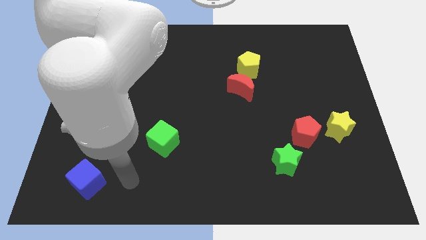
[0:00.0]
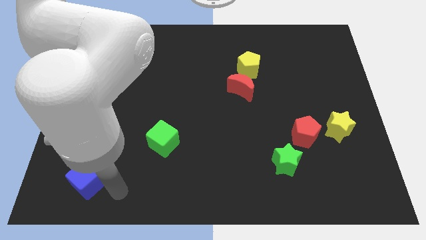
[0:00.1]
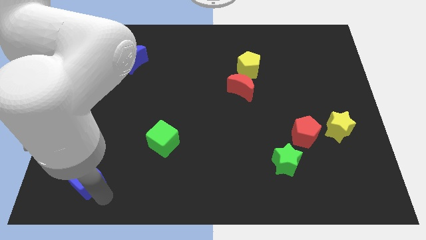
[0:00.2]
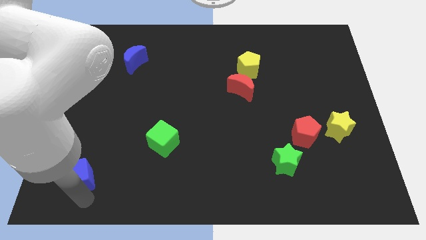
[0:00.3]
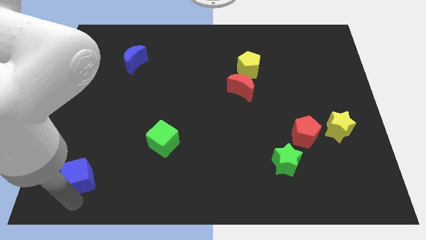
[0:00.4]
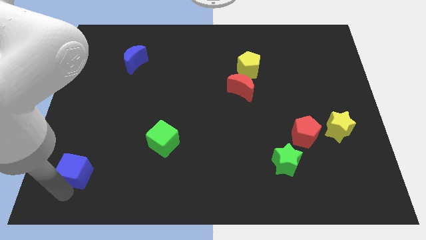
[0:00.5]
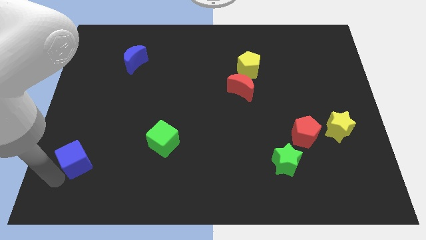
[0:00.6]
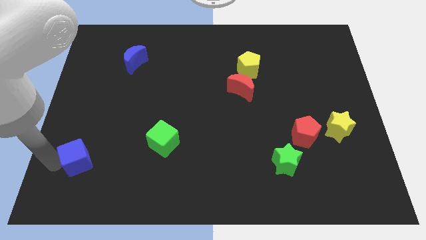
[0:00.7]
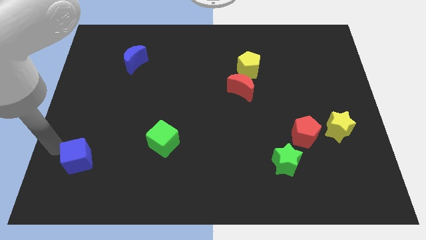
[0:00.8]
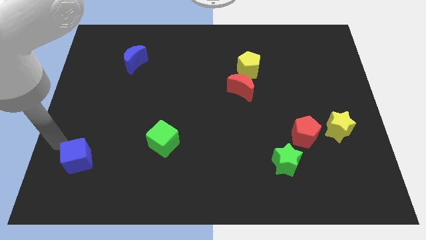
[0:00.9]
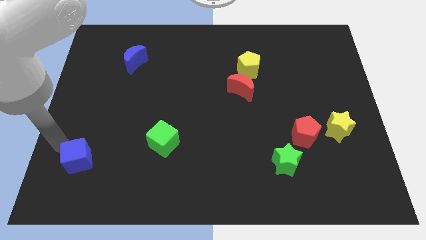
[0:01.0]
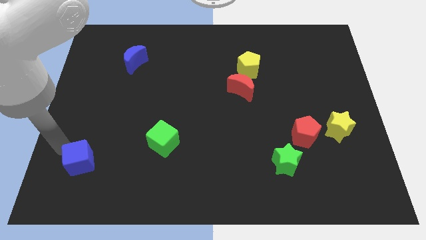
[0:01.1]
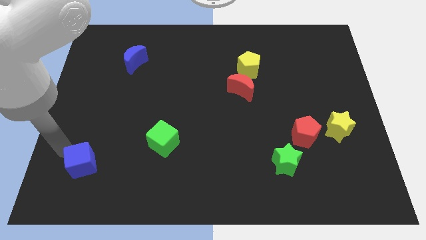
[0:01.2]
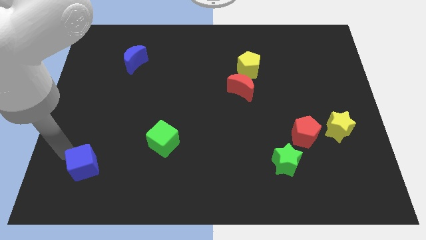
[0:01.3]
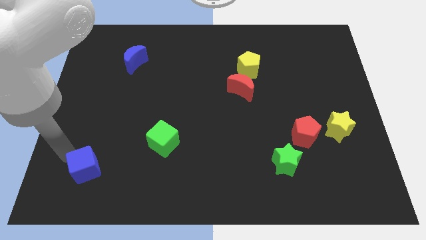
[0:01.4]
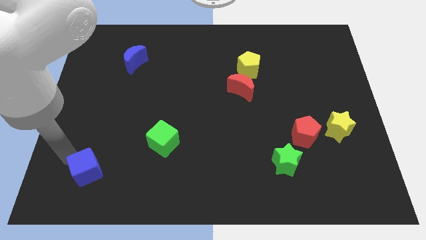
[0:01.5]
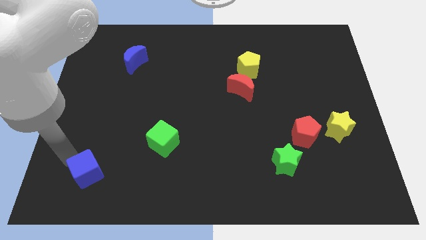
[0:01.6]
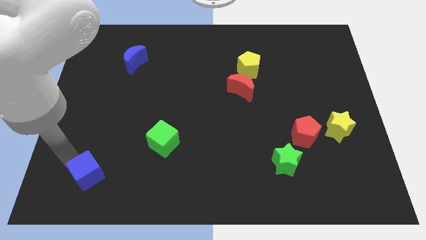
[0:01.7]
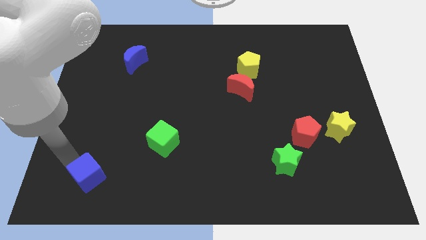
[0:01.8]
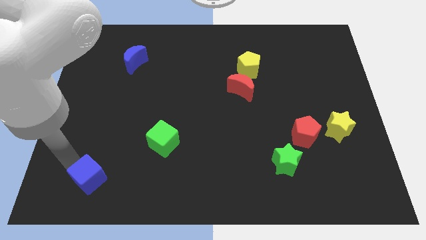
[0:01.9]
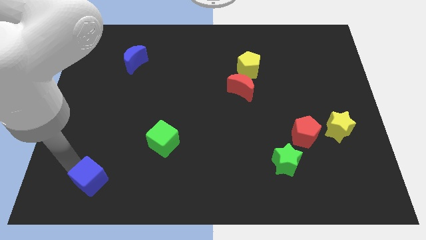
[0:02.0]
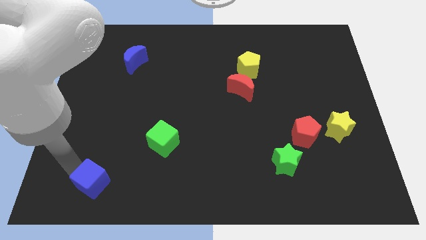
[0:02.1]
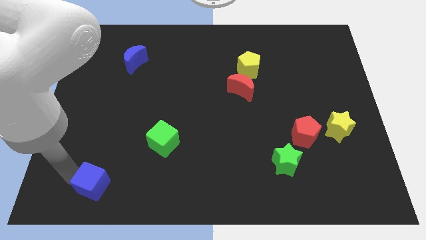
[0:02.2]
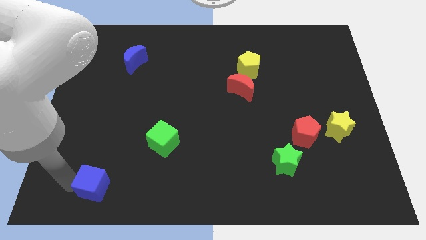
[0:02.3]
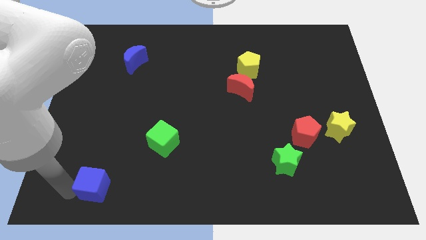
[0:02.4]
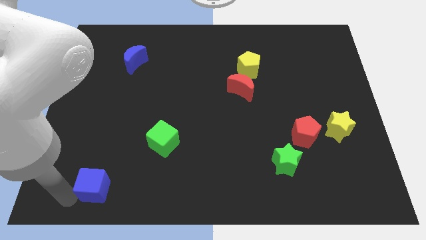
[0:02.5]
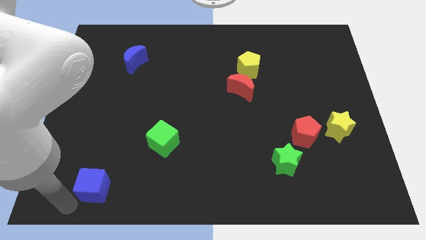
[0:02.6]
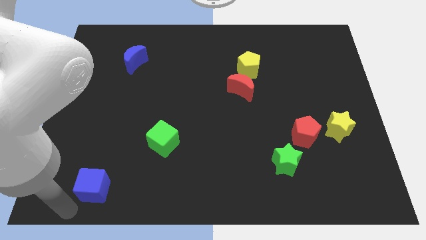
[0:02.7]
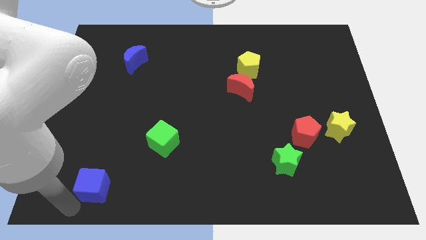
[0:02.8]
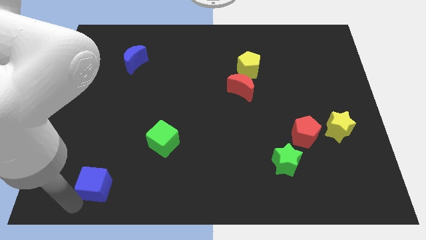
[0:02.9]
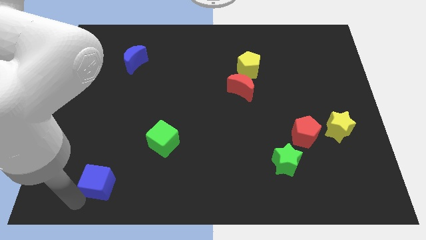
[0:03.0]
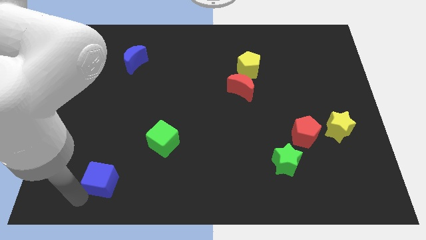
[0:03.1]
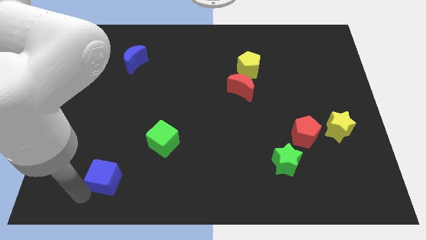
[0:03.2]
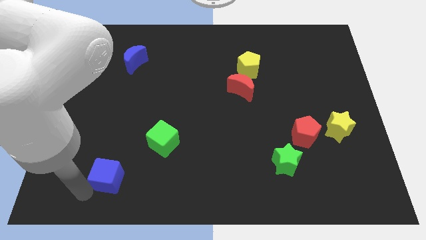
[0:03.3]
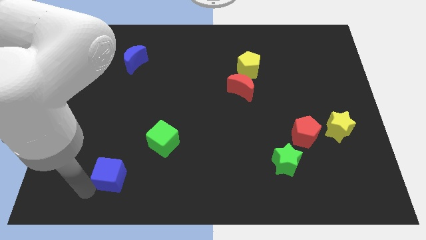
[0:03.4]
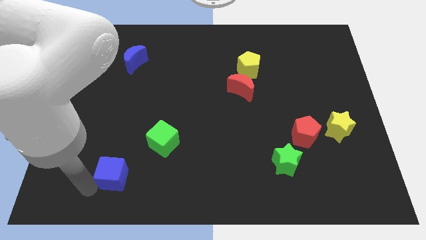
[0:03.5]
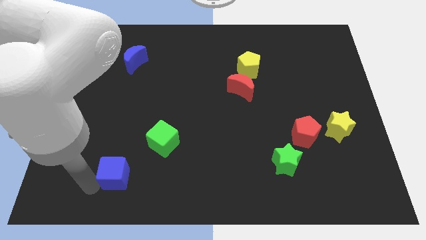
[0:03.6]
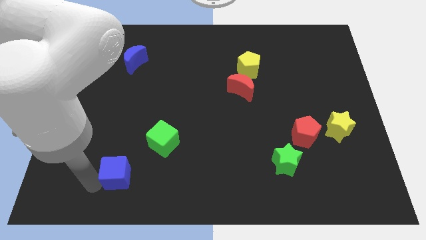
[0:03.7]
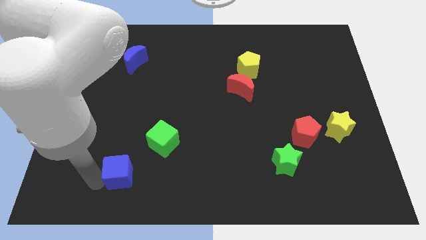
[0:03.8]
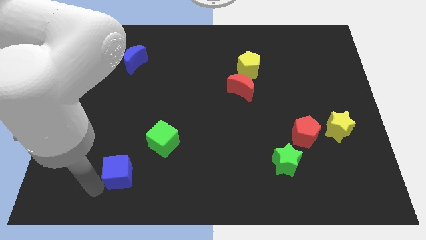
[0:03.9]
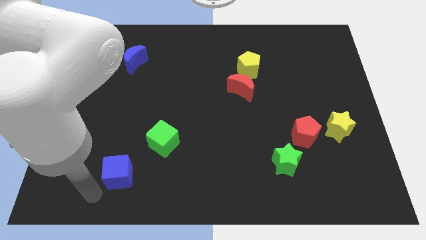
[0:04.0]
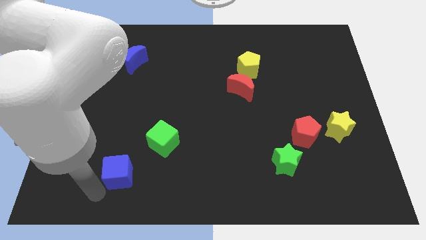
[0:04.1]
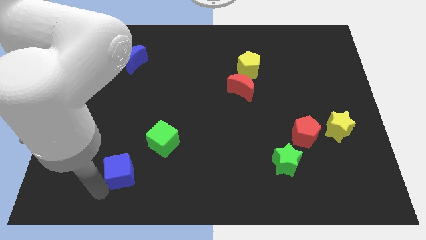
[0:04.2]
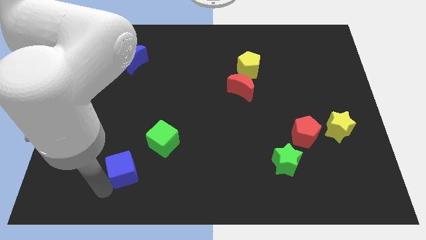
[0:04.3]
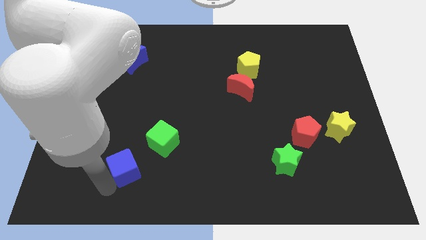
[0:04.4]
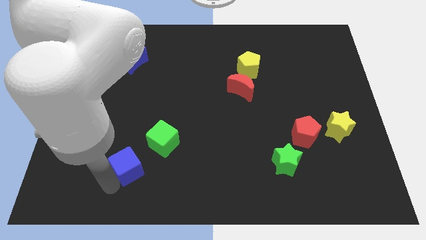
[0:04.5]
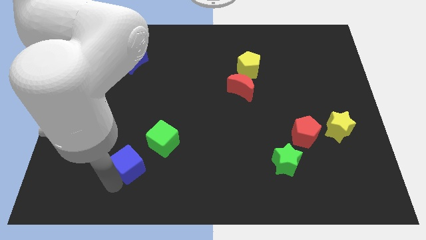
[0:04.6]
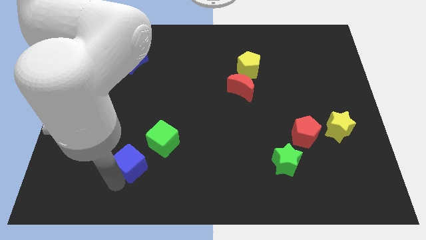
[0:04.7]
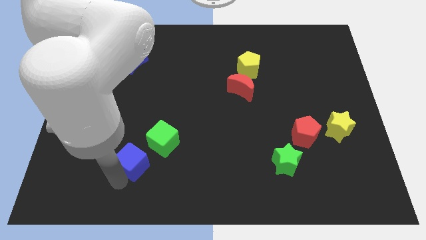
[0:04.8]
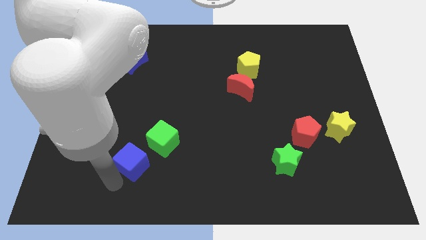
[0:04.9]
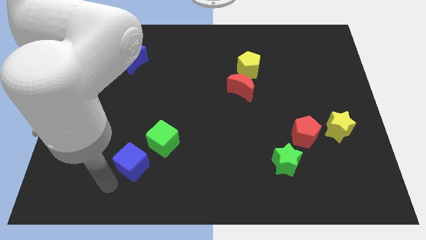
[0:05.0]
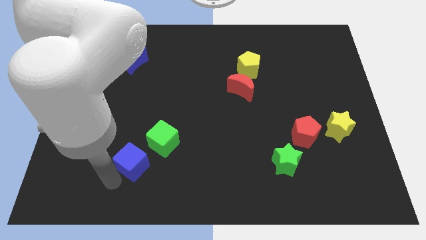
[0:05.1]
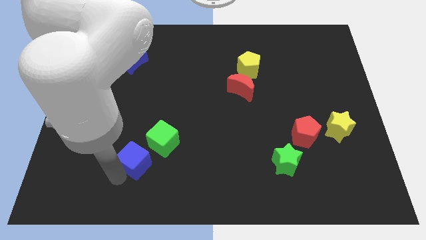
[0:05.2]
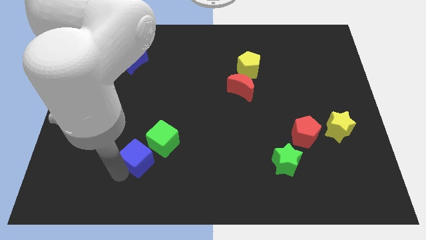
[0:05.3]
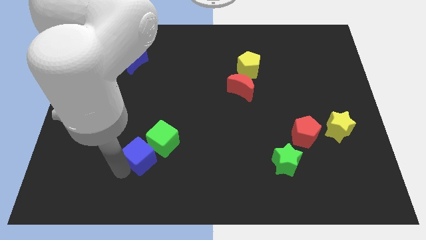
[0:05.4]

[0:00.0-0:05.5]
put the blue cube to the green cube

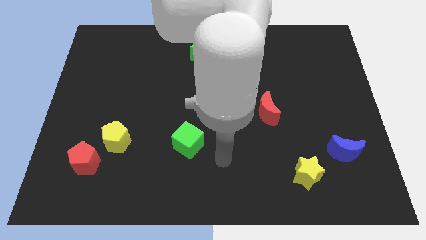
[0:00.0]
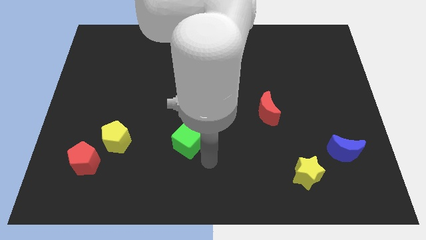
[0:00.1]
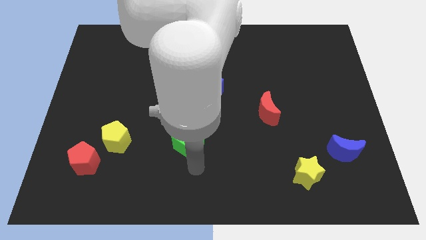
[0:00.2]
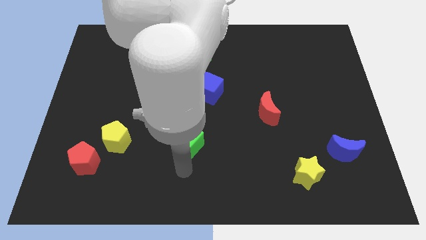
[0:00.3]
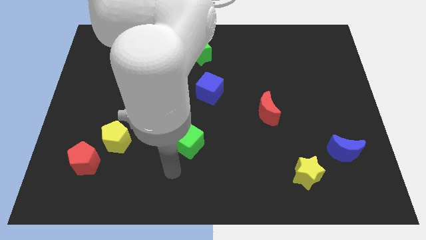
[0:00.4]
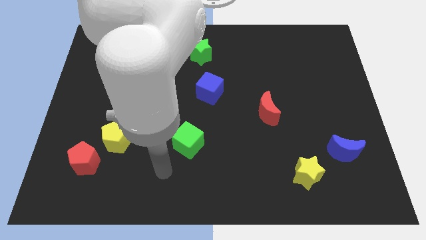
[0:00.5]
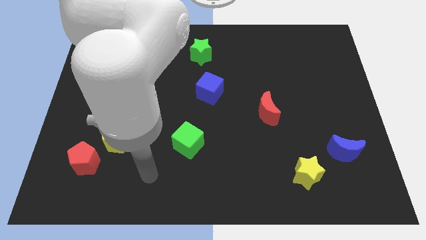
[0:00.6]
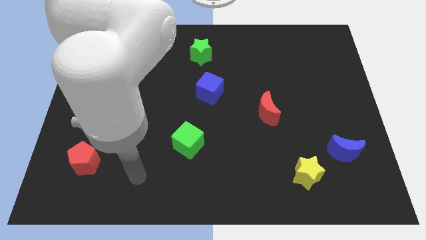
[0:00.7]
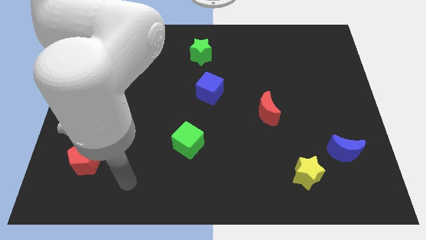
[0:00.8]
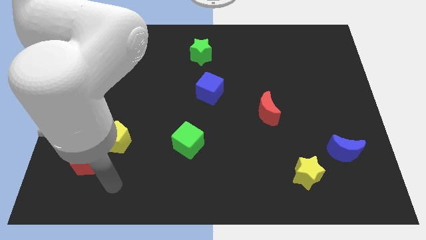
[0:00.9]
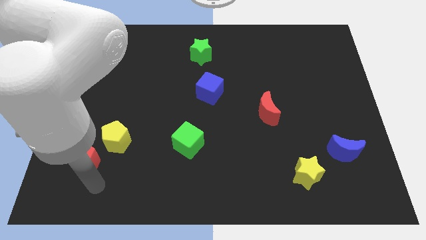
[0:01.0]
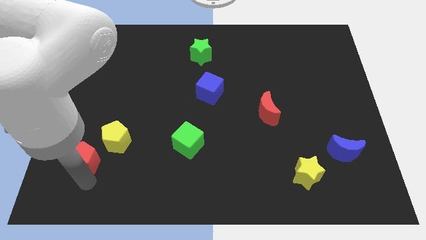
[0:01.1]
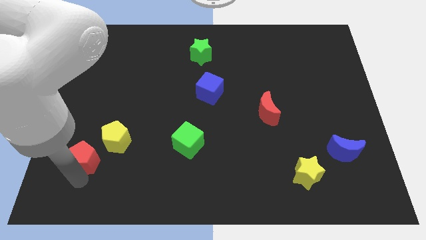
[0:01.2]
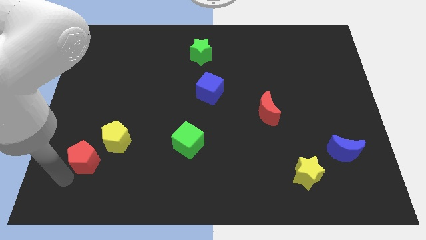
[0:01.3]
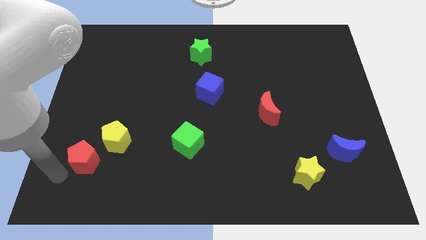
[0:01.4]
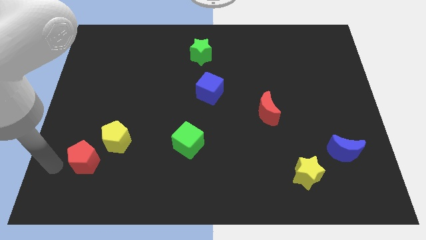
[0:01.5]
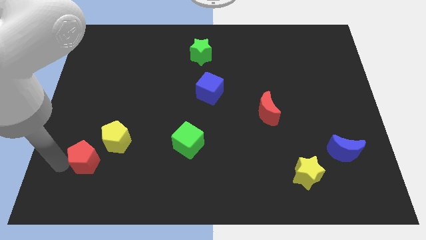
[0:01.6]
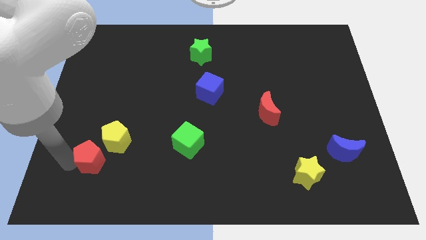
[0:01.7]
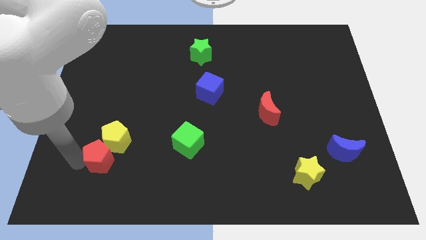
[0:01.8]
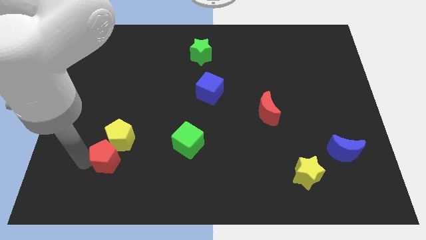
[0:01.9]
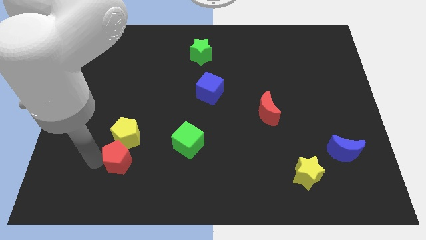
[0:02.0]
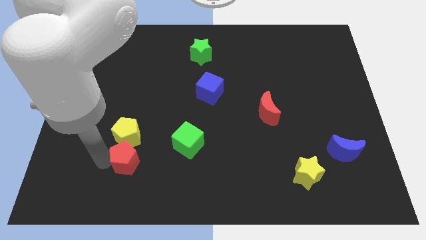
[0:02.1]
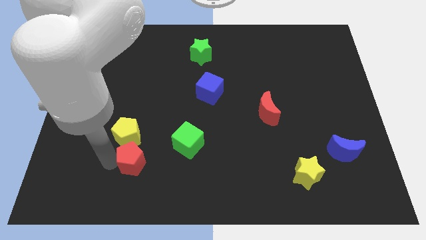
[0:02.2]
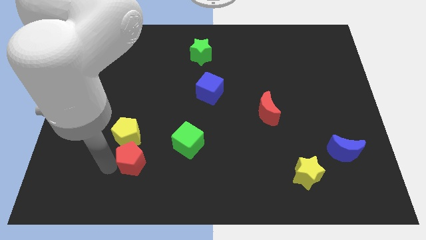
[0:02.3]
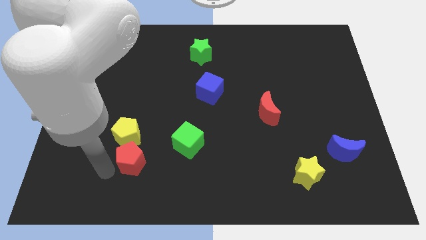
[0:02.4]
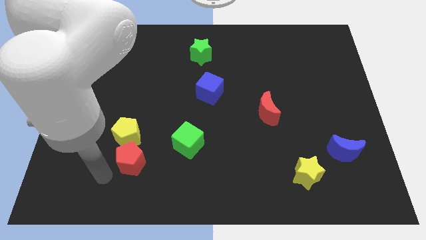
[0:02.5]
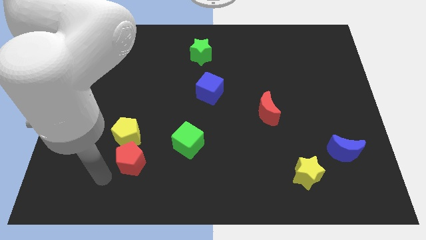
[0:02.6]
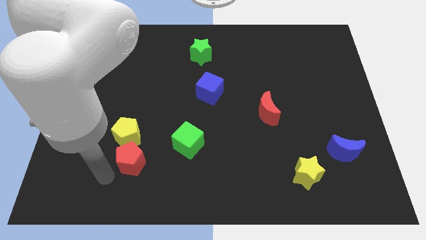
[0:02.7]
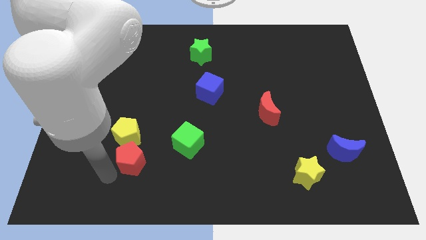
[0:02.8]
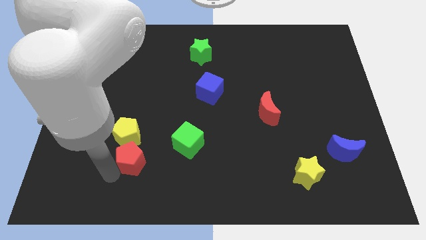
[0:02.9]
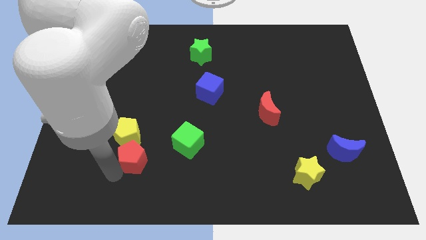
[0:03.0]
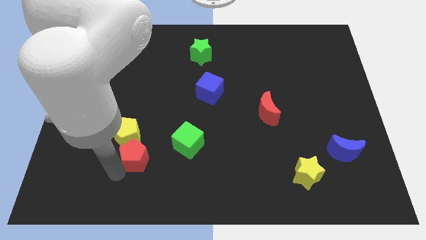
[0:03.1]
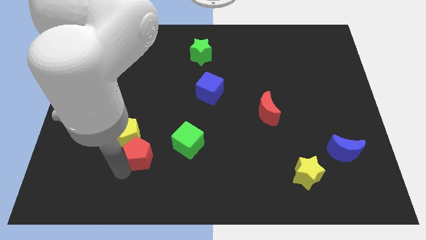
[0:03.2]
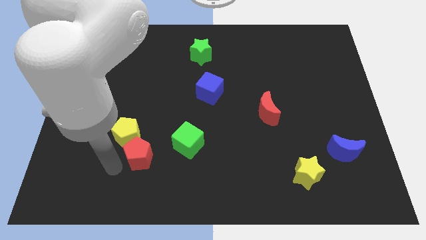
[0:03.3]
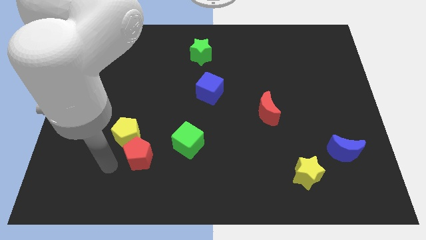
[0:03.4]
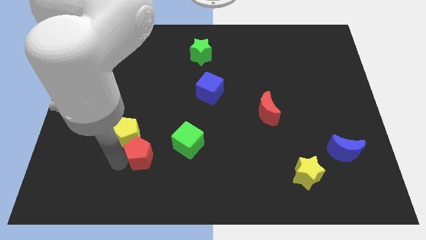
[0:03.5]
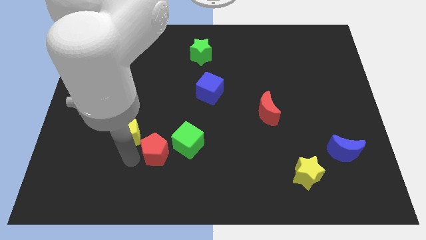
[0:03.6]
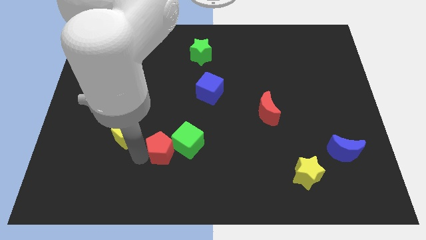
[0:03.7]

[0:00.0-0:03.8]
put the red pentagon next to the green cube
